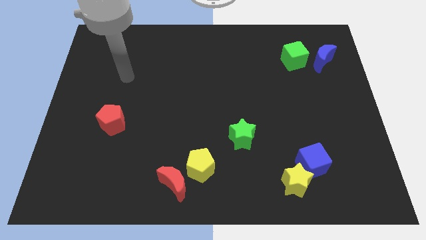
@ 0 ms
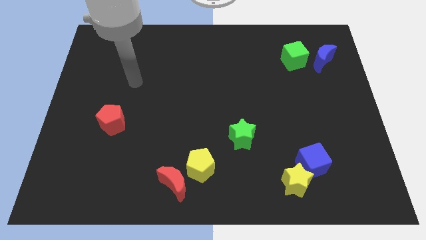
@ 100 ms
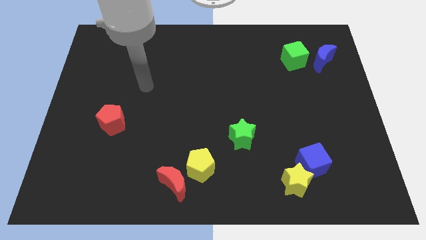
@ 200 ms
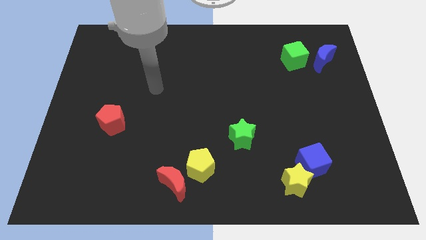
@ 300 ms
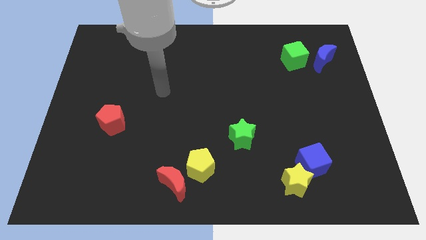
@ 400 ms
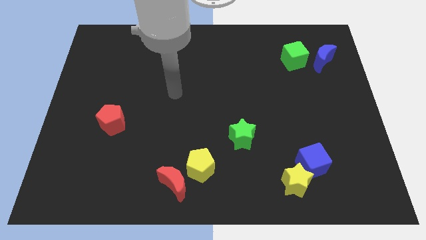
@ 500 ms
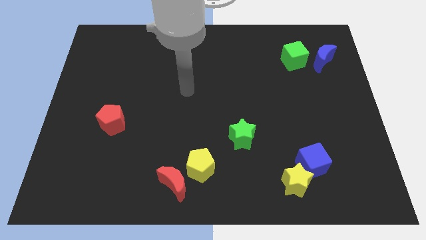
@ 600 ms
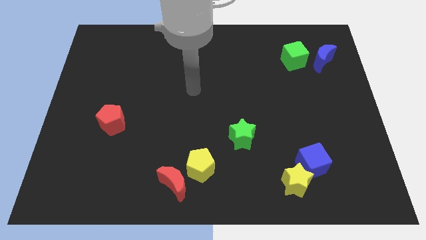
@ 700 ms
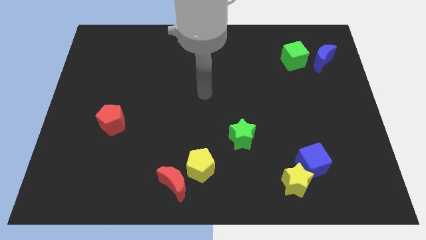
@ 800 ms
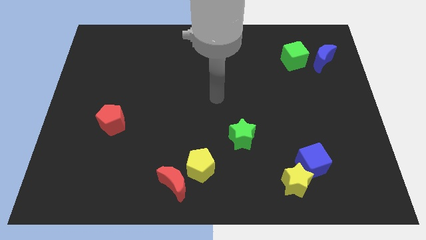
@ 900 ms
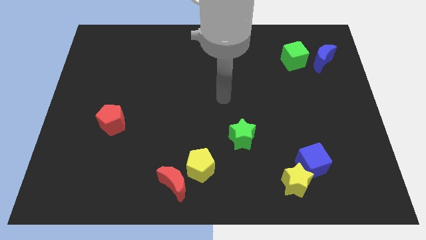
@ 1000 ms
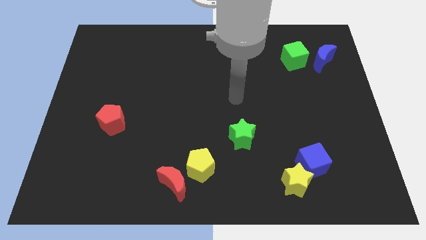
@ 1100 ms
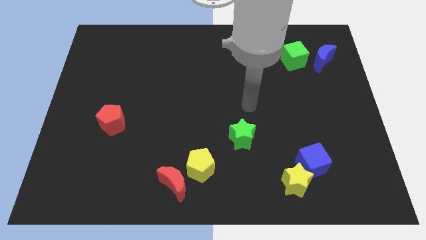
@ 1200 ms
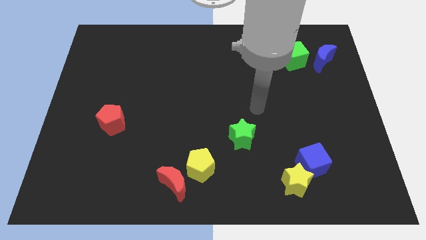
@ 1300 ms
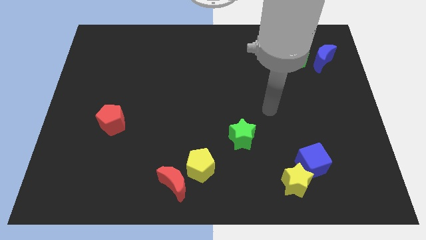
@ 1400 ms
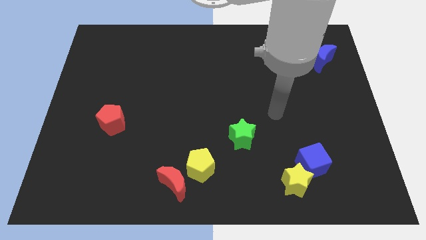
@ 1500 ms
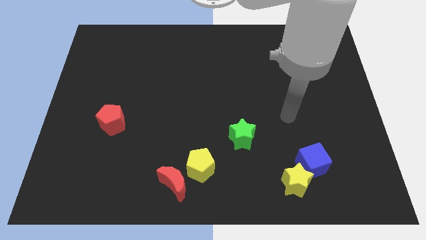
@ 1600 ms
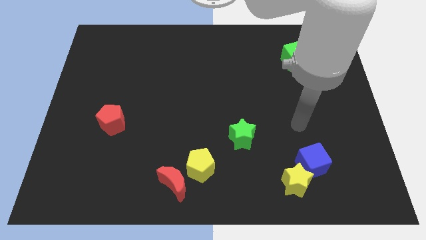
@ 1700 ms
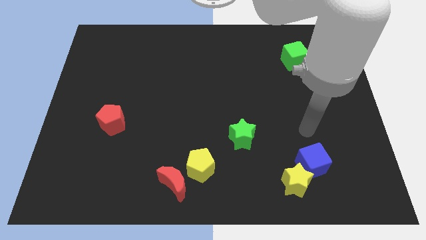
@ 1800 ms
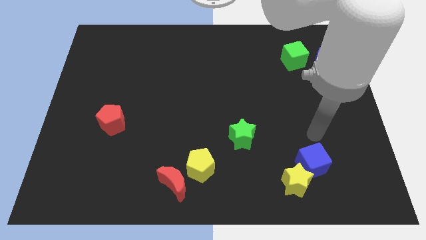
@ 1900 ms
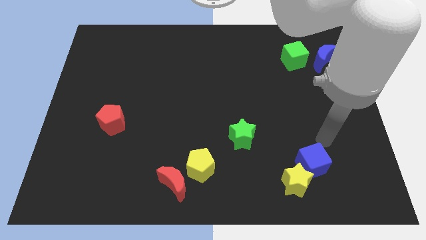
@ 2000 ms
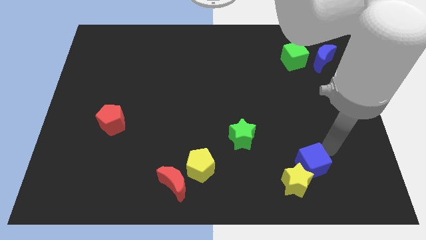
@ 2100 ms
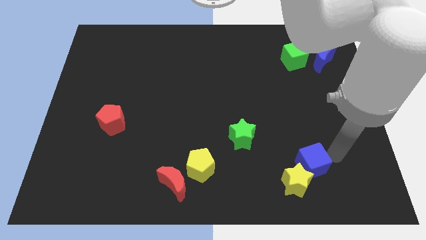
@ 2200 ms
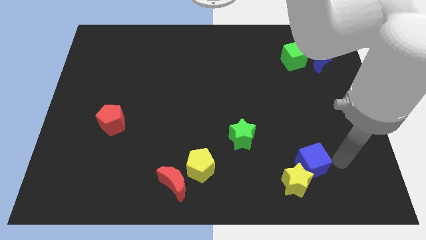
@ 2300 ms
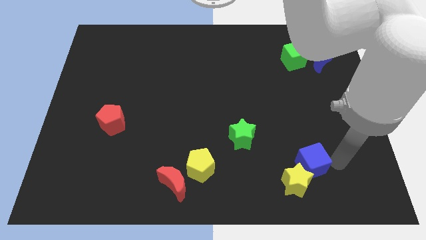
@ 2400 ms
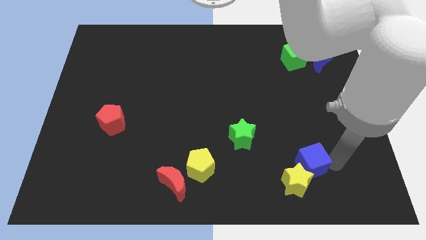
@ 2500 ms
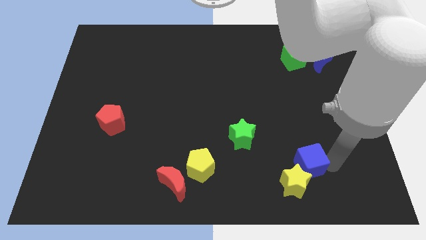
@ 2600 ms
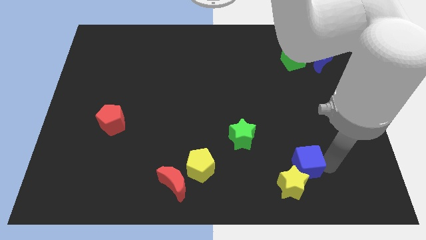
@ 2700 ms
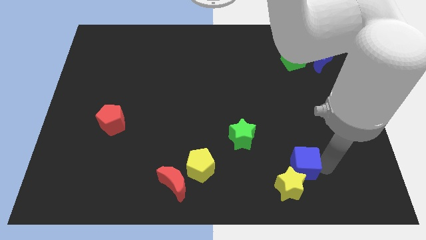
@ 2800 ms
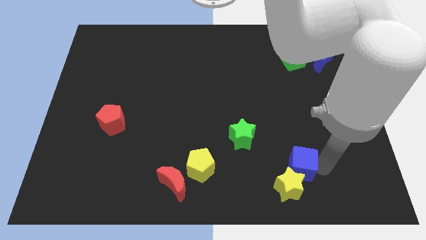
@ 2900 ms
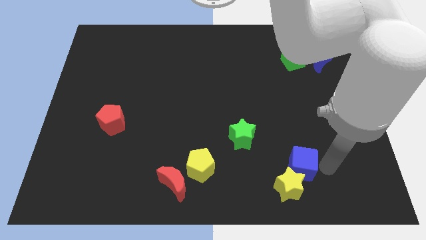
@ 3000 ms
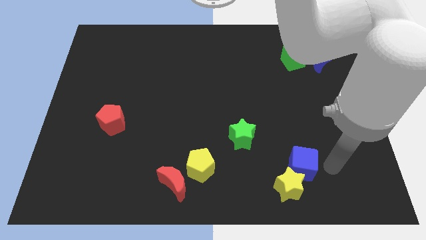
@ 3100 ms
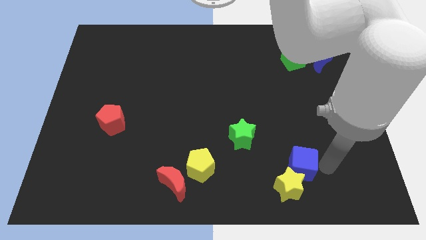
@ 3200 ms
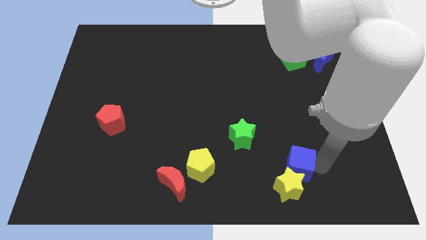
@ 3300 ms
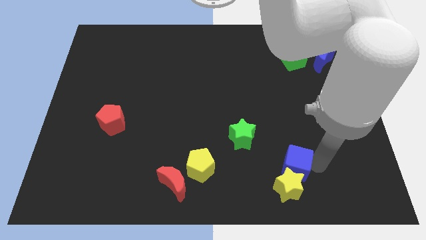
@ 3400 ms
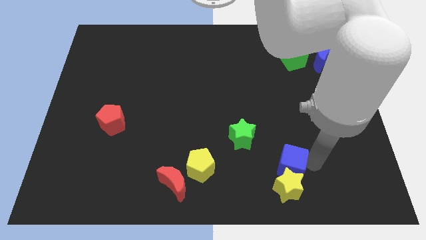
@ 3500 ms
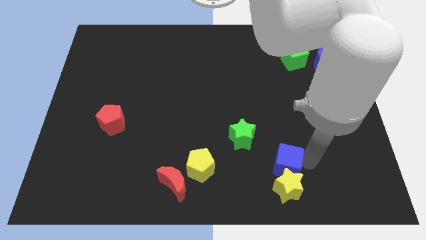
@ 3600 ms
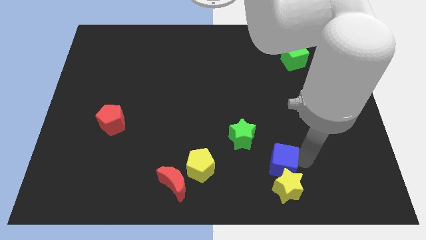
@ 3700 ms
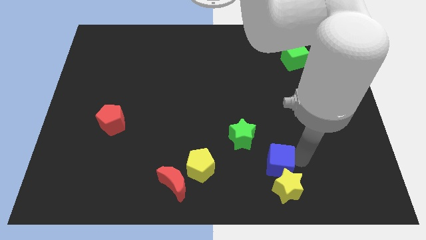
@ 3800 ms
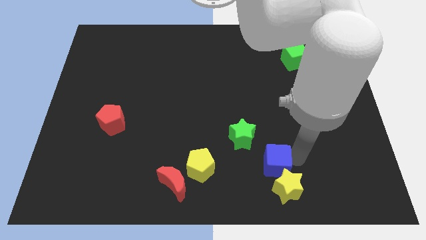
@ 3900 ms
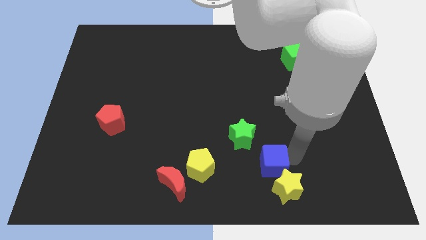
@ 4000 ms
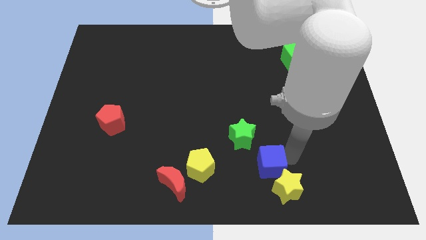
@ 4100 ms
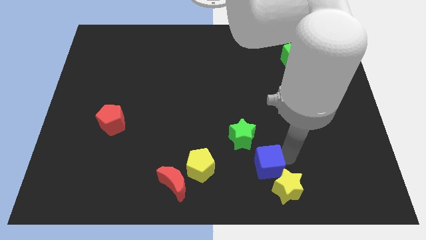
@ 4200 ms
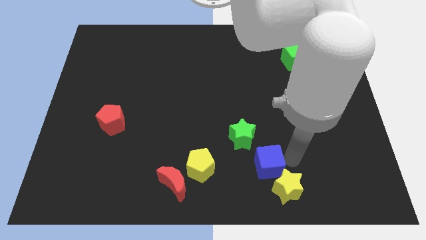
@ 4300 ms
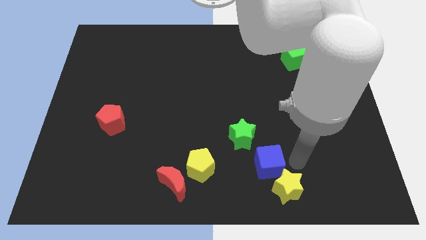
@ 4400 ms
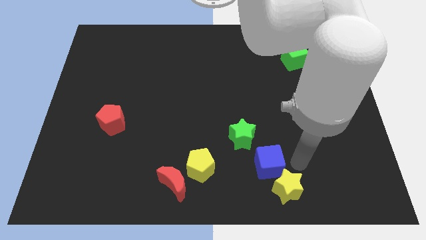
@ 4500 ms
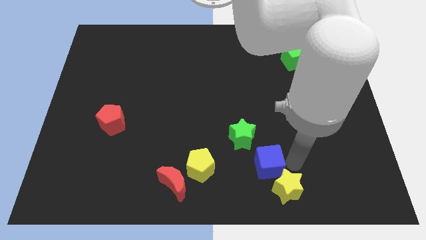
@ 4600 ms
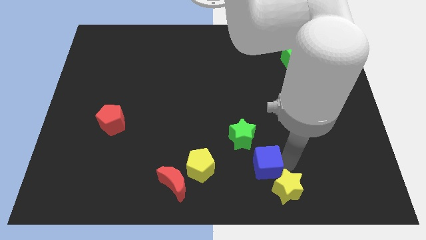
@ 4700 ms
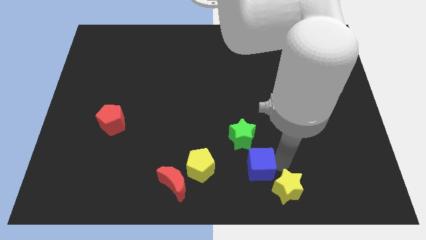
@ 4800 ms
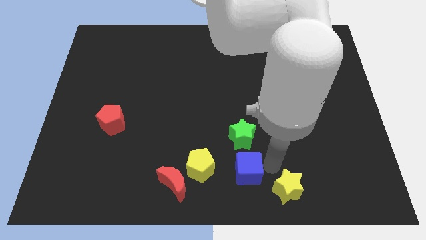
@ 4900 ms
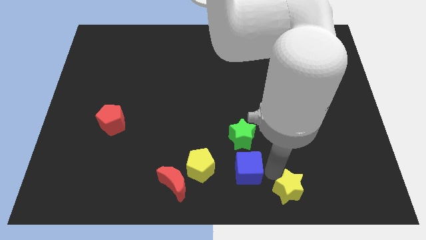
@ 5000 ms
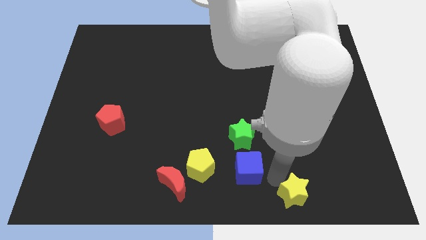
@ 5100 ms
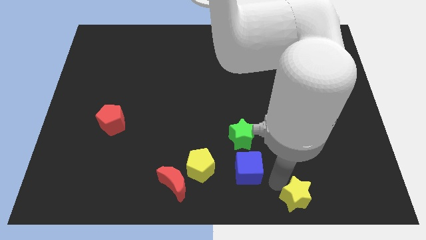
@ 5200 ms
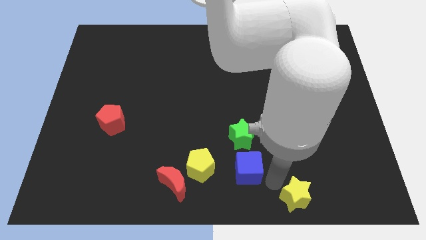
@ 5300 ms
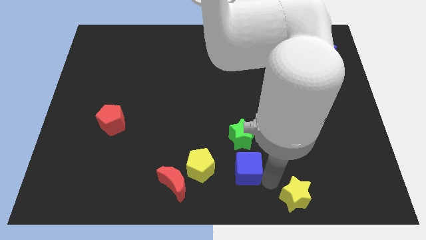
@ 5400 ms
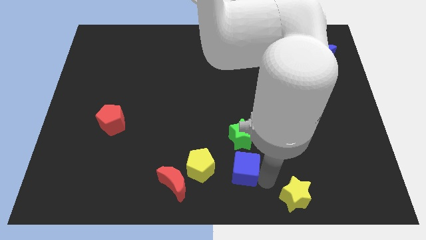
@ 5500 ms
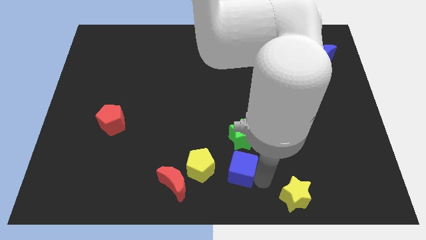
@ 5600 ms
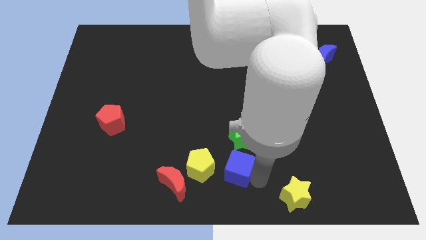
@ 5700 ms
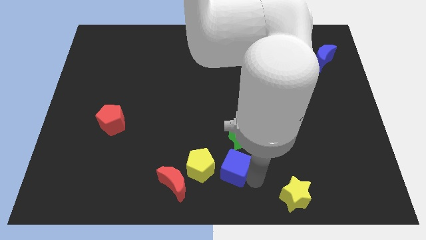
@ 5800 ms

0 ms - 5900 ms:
push the blue cube to the bottom left of the green star

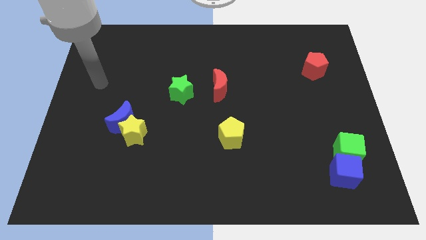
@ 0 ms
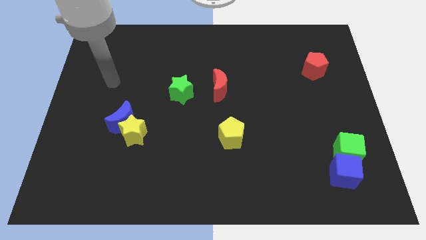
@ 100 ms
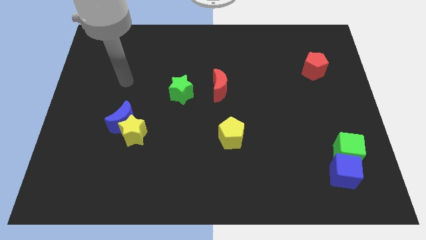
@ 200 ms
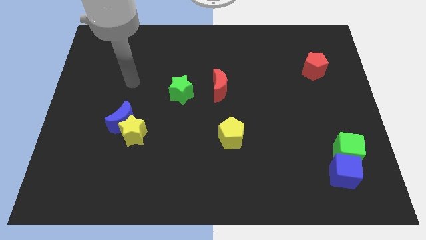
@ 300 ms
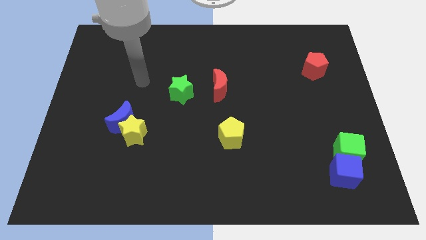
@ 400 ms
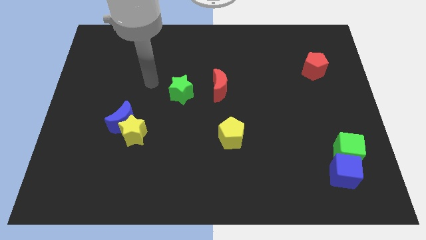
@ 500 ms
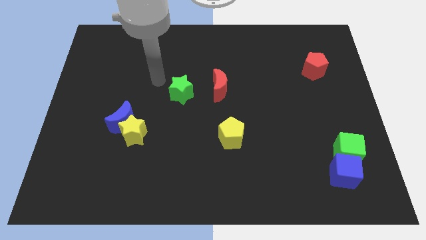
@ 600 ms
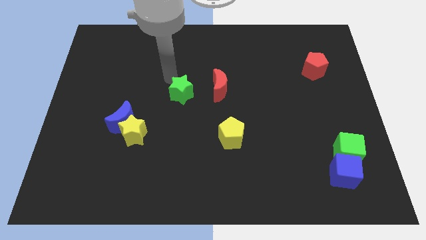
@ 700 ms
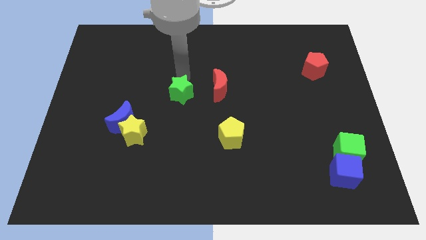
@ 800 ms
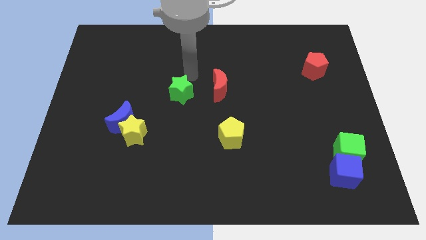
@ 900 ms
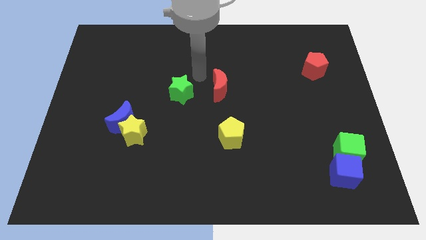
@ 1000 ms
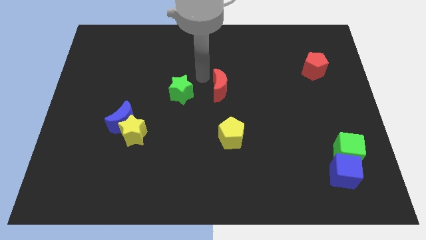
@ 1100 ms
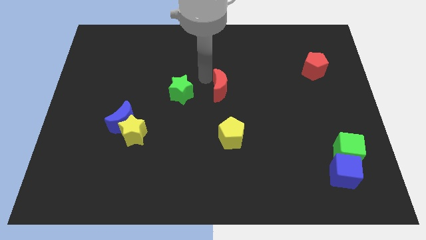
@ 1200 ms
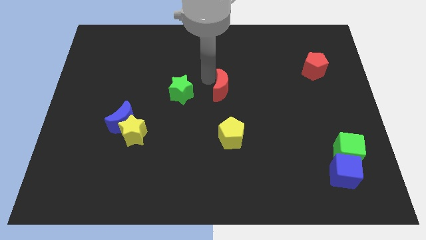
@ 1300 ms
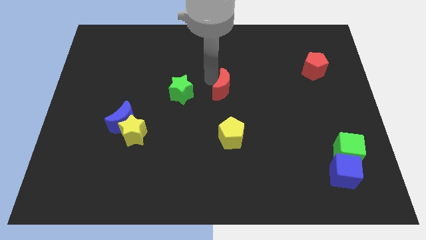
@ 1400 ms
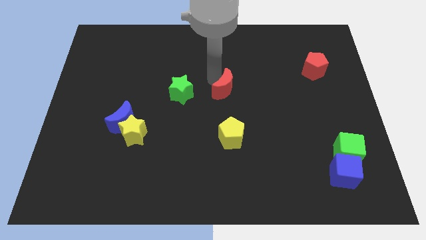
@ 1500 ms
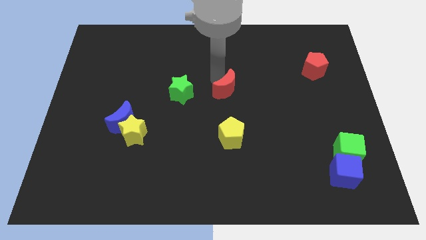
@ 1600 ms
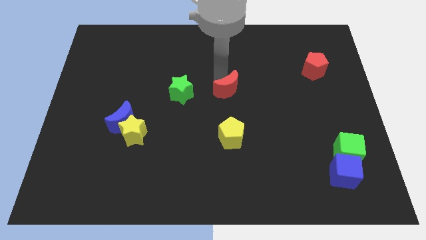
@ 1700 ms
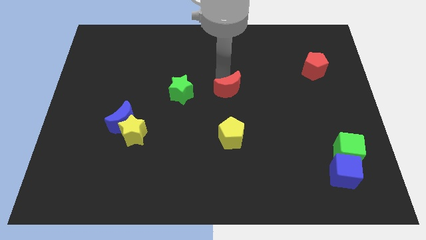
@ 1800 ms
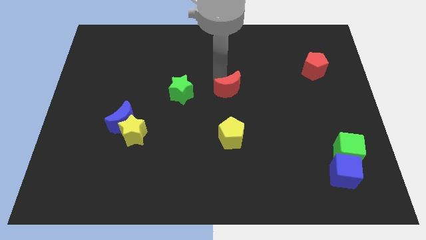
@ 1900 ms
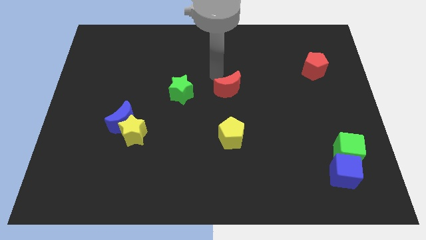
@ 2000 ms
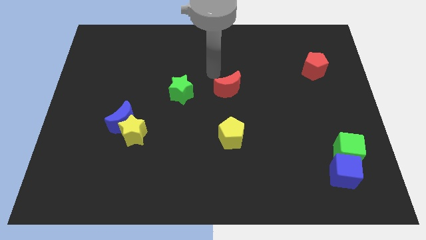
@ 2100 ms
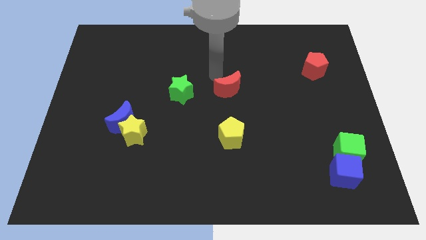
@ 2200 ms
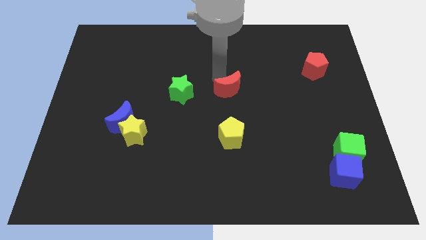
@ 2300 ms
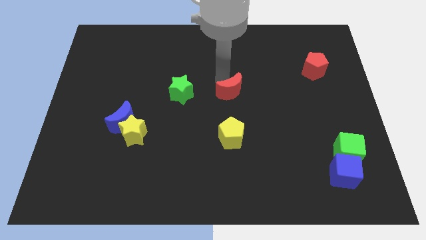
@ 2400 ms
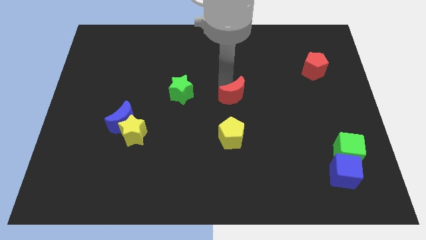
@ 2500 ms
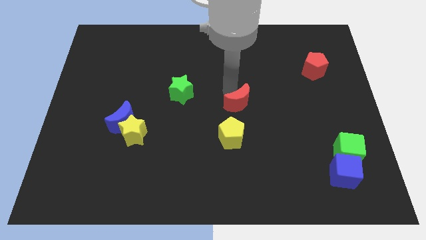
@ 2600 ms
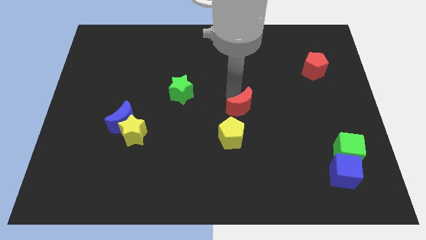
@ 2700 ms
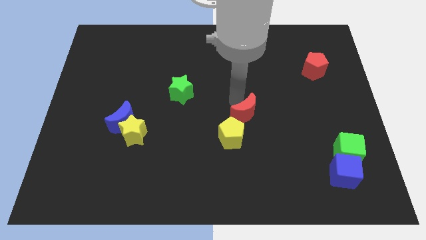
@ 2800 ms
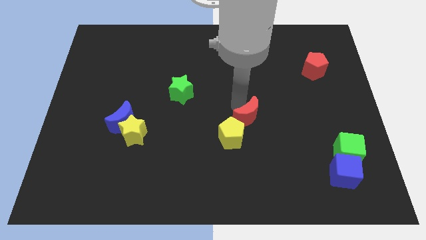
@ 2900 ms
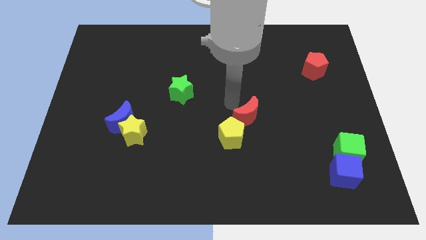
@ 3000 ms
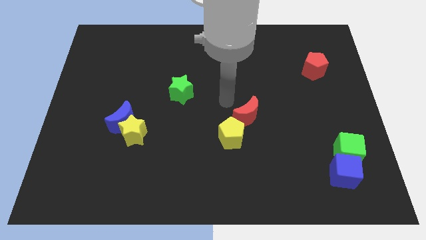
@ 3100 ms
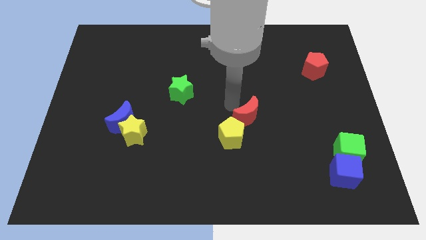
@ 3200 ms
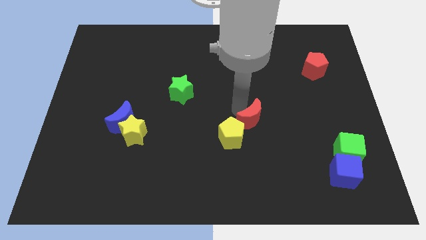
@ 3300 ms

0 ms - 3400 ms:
push the red moon to the right side of the yellow pentagon
